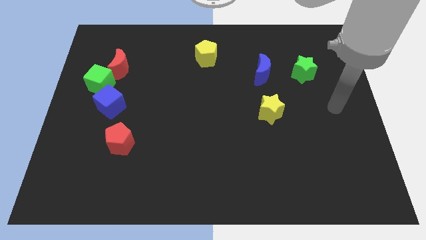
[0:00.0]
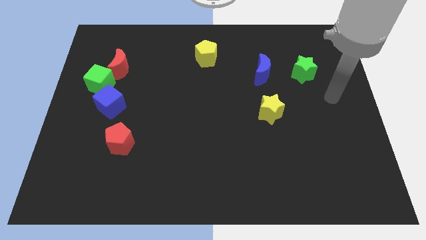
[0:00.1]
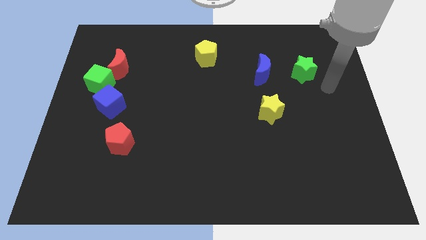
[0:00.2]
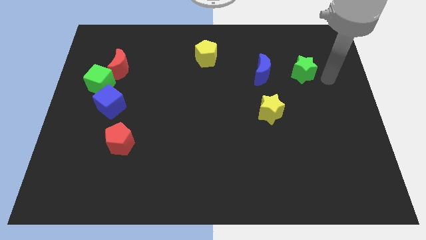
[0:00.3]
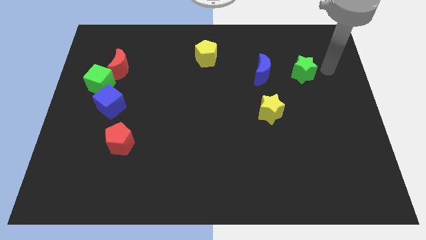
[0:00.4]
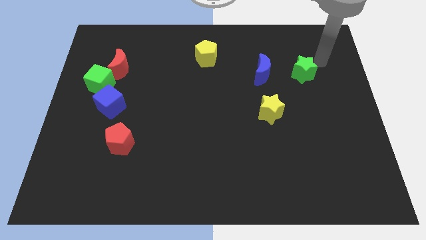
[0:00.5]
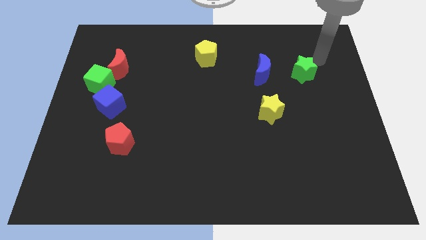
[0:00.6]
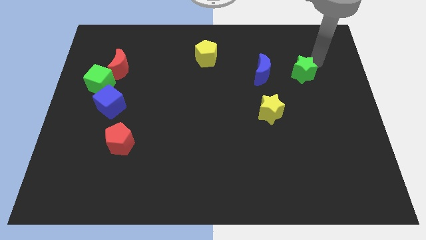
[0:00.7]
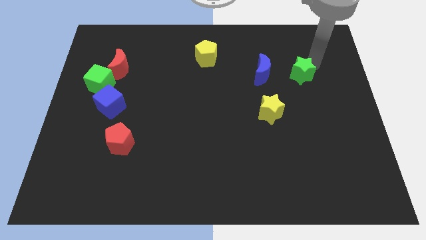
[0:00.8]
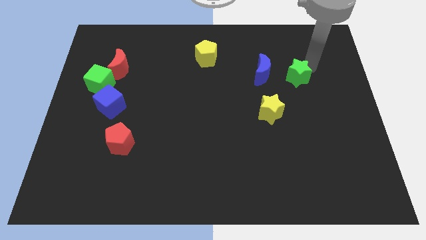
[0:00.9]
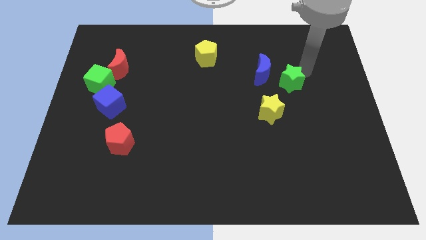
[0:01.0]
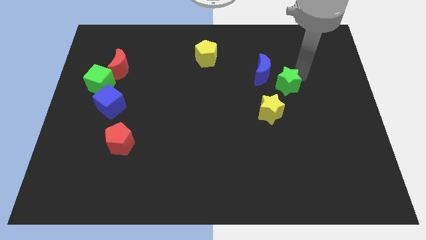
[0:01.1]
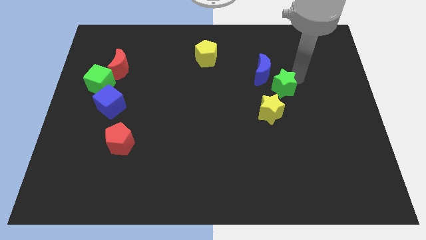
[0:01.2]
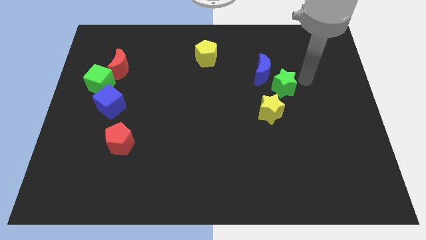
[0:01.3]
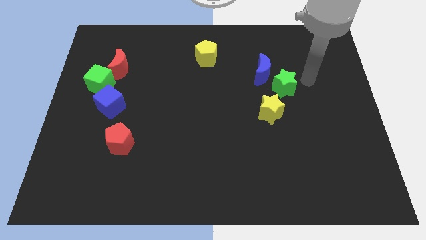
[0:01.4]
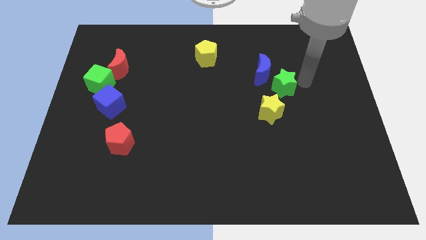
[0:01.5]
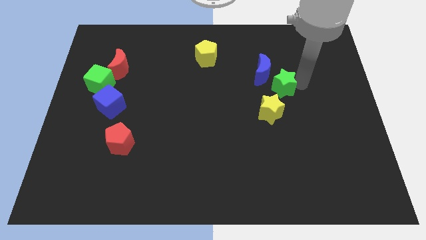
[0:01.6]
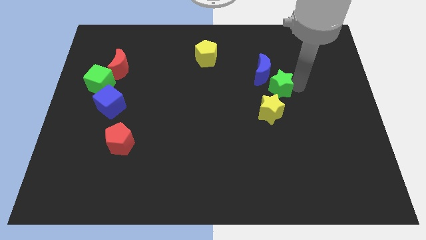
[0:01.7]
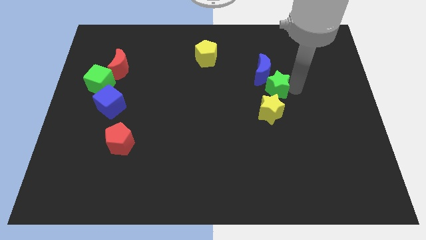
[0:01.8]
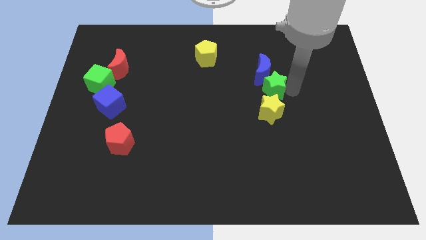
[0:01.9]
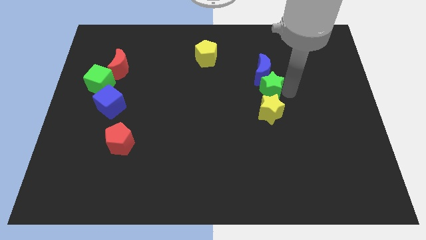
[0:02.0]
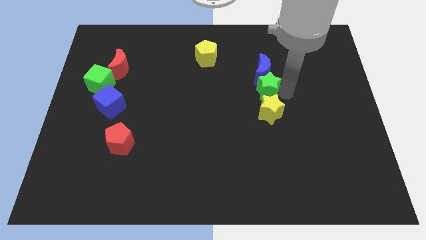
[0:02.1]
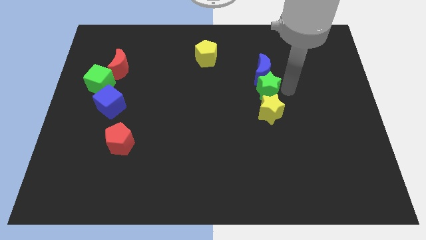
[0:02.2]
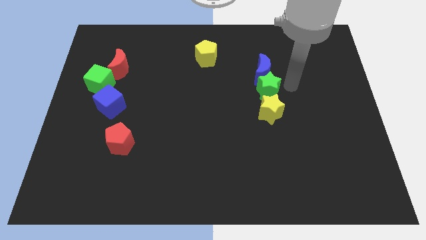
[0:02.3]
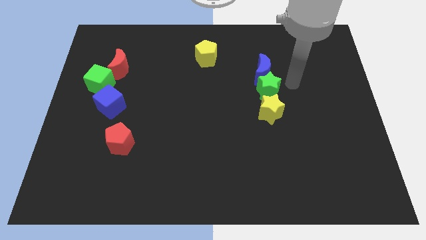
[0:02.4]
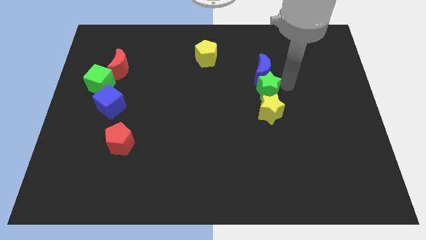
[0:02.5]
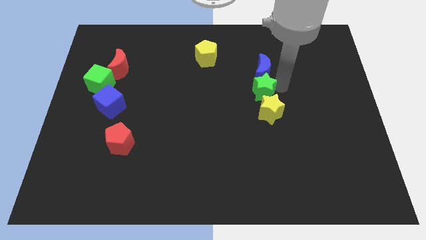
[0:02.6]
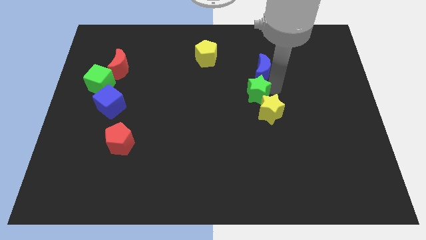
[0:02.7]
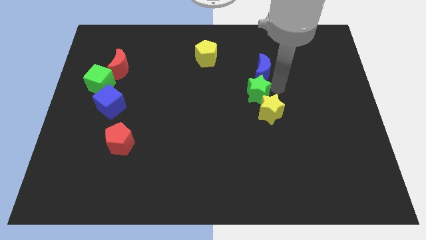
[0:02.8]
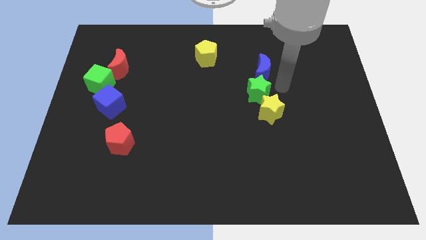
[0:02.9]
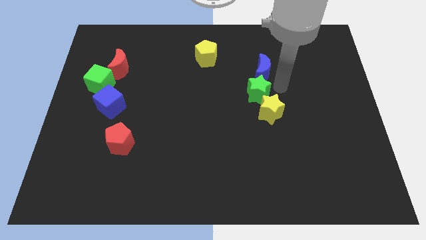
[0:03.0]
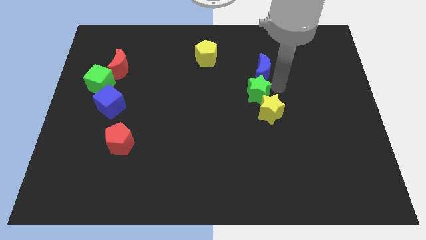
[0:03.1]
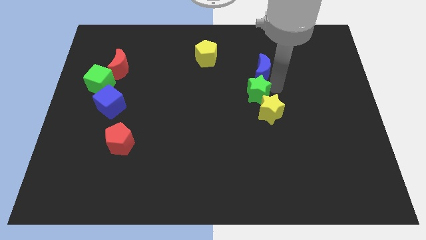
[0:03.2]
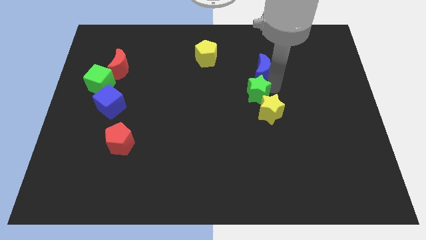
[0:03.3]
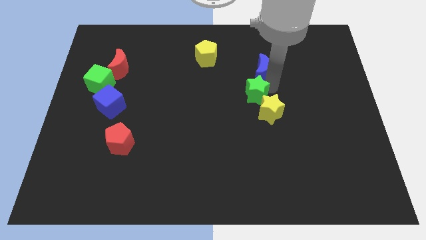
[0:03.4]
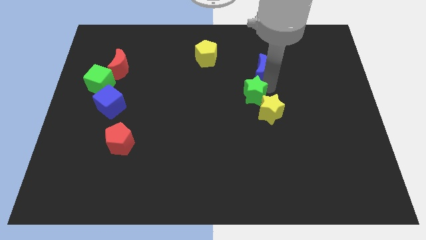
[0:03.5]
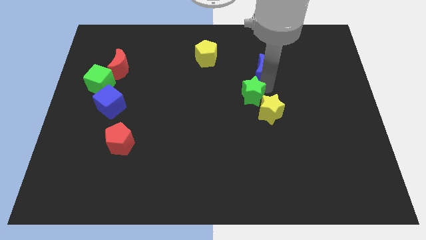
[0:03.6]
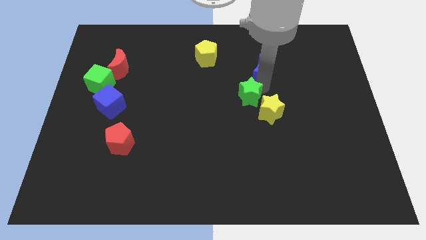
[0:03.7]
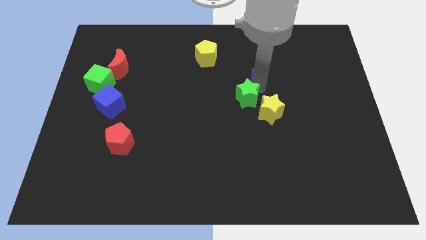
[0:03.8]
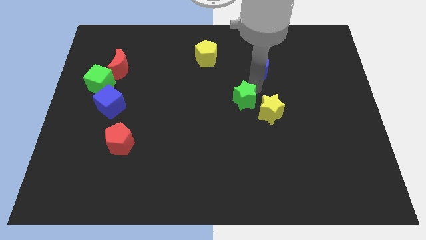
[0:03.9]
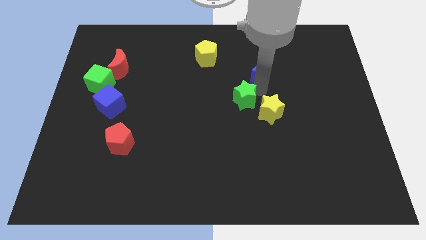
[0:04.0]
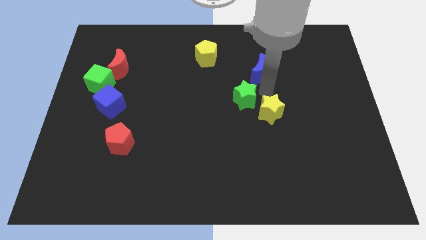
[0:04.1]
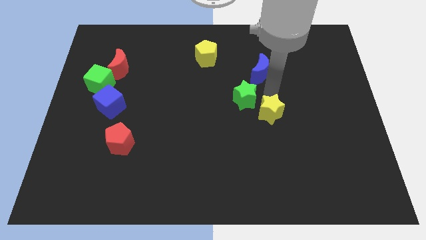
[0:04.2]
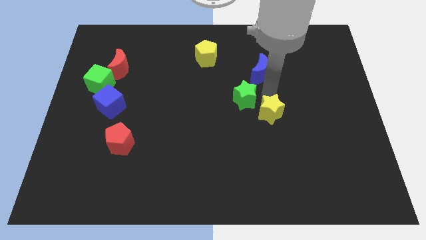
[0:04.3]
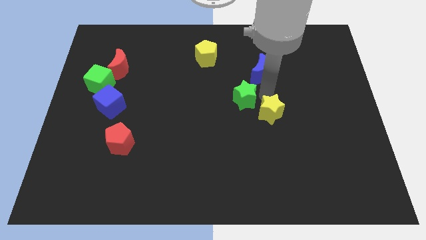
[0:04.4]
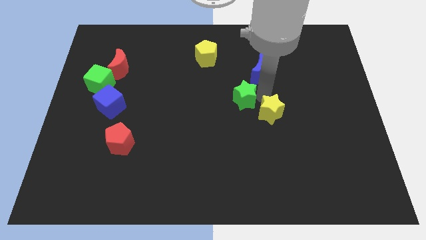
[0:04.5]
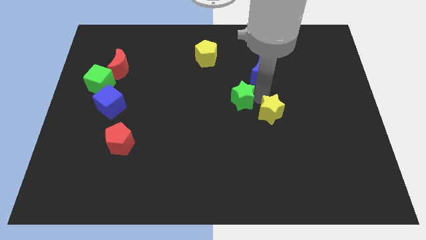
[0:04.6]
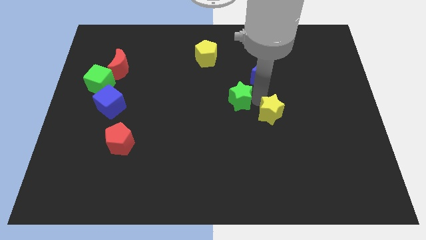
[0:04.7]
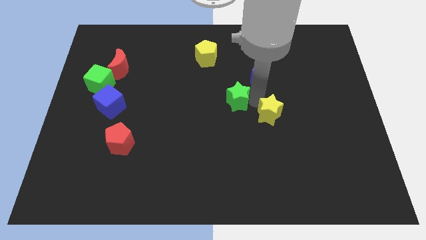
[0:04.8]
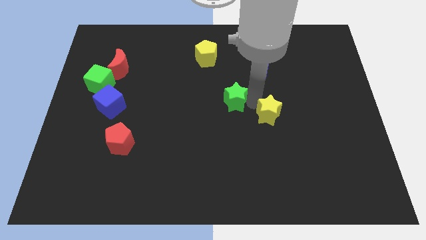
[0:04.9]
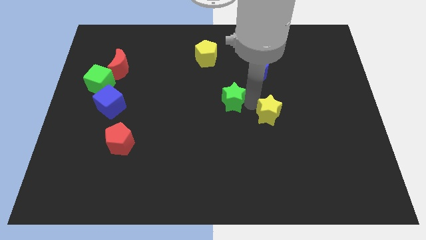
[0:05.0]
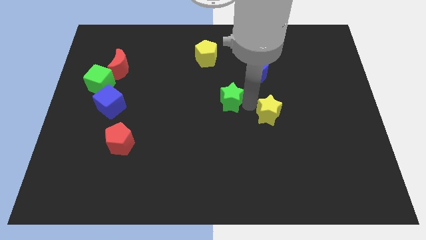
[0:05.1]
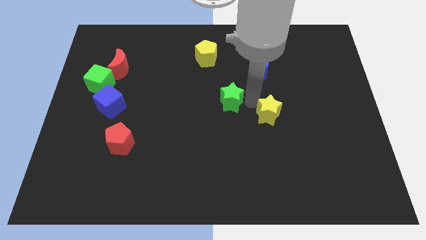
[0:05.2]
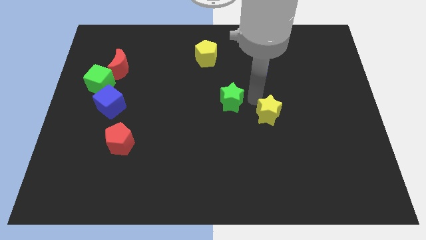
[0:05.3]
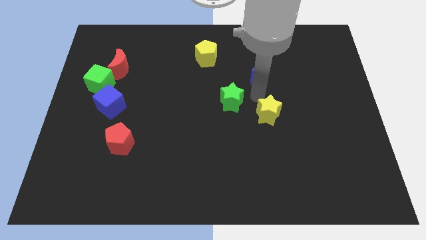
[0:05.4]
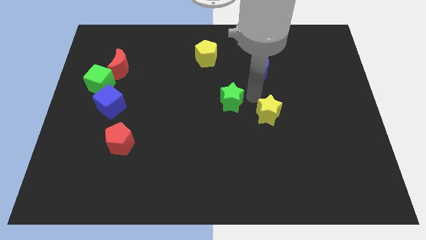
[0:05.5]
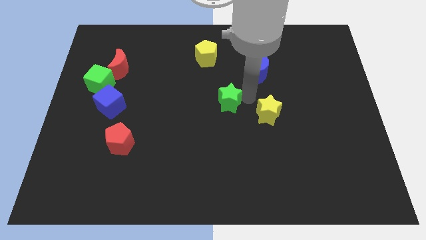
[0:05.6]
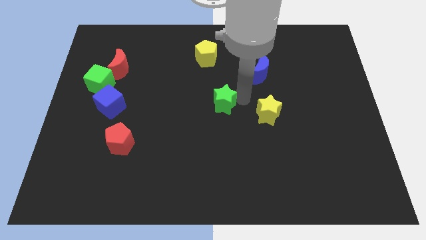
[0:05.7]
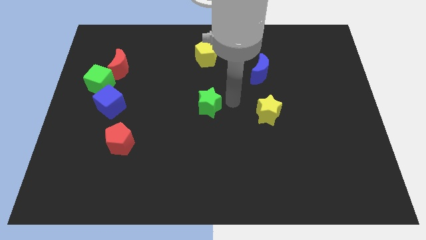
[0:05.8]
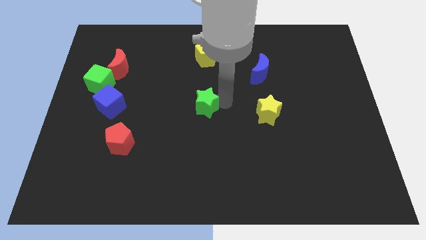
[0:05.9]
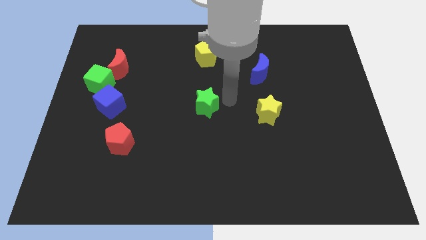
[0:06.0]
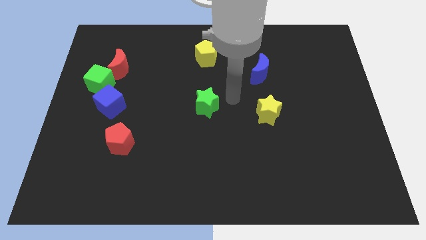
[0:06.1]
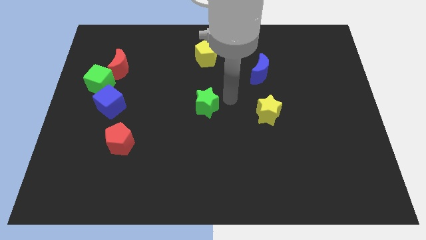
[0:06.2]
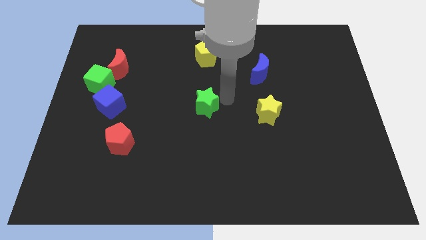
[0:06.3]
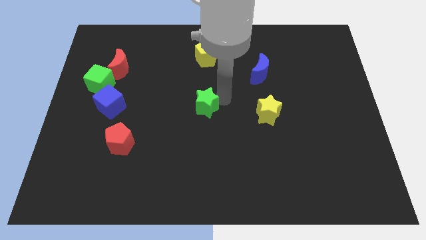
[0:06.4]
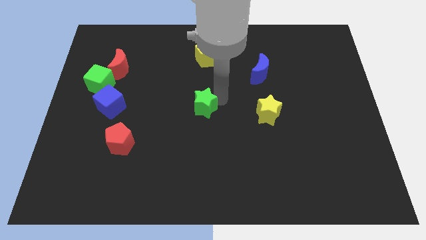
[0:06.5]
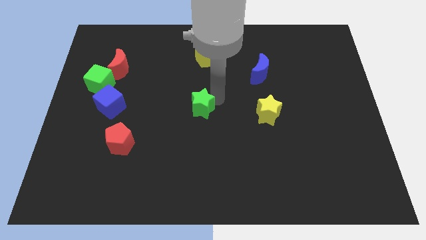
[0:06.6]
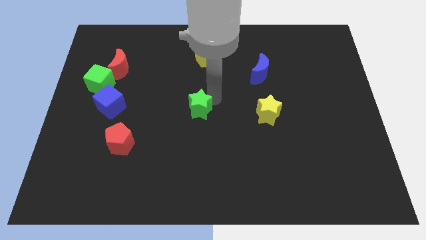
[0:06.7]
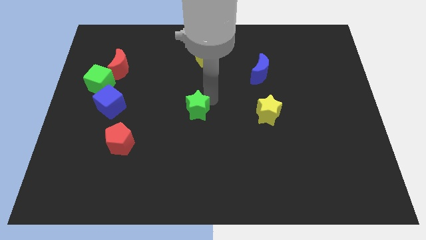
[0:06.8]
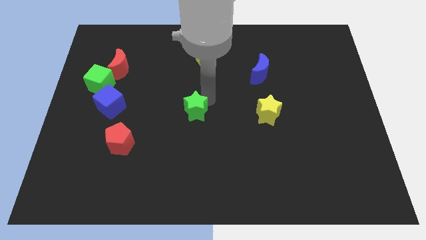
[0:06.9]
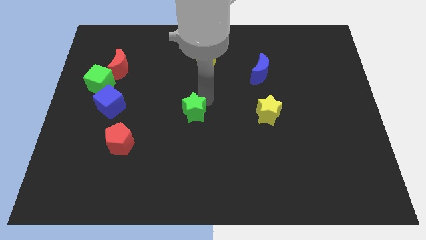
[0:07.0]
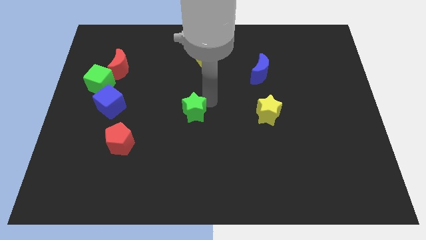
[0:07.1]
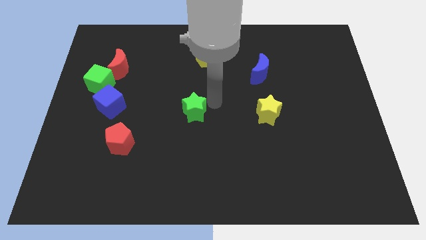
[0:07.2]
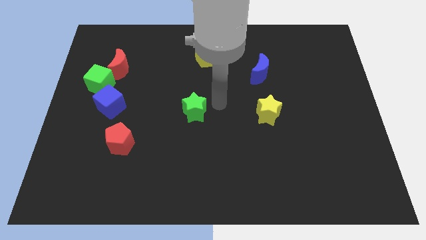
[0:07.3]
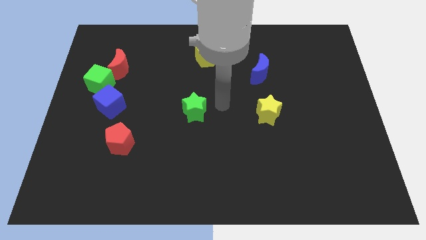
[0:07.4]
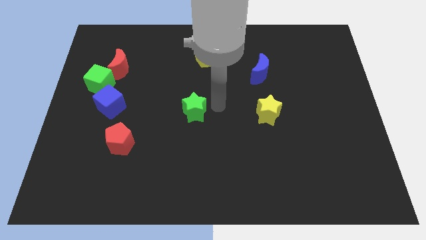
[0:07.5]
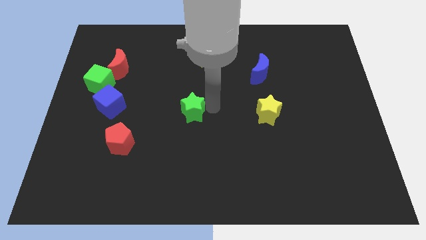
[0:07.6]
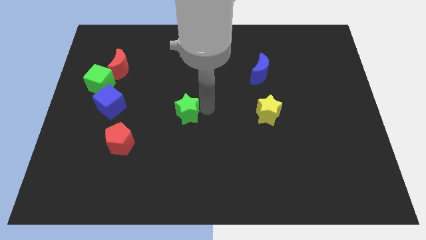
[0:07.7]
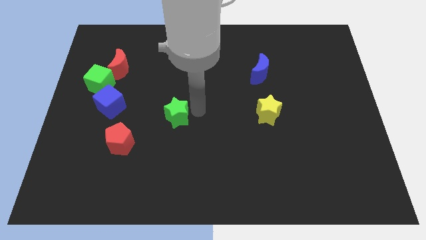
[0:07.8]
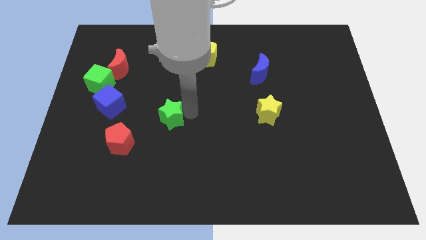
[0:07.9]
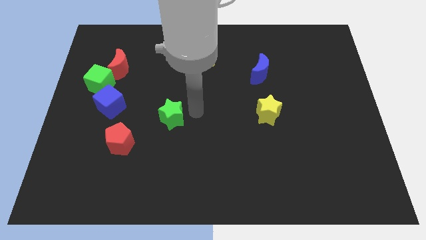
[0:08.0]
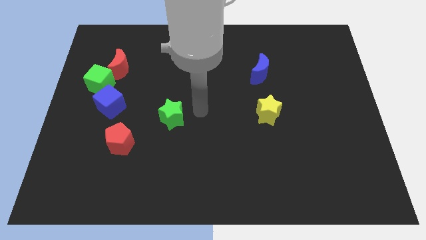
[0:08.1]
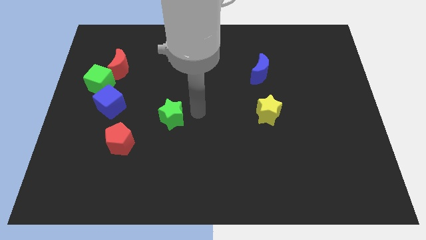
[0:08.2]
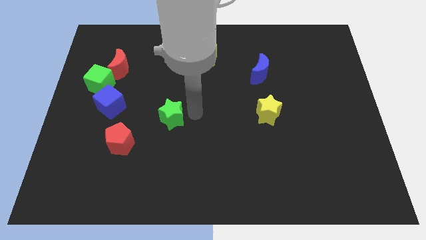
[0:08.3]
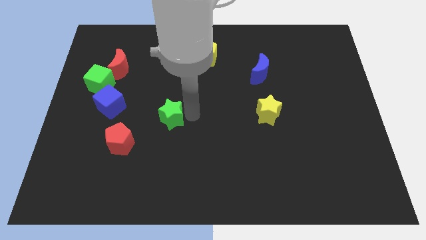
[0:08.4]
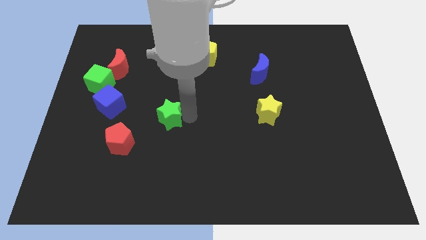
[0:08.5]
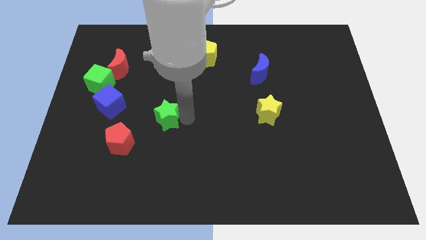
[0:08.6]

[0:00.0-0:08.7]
put the green star to the top right of the red pentagon
